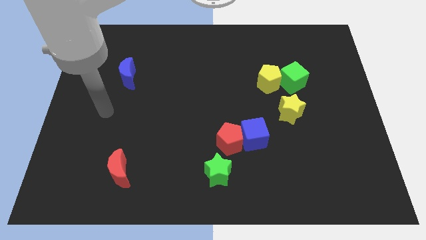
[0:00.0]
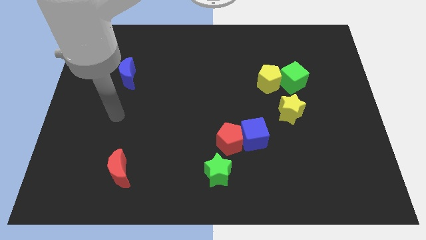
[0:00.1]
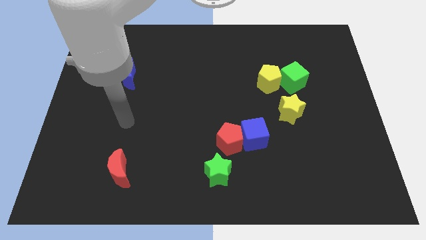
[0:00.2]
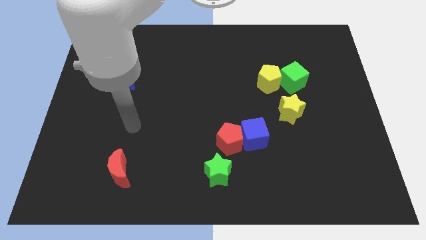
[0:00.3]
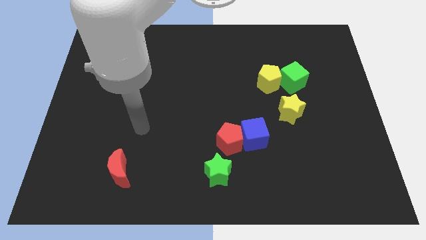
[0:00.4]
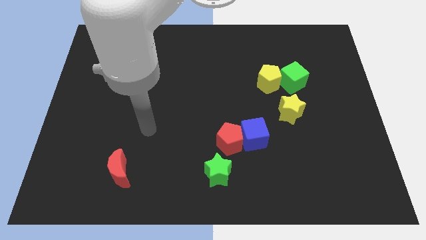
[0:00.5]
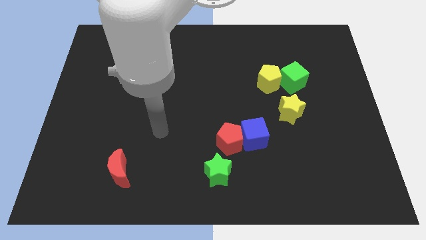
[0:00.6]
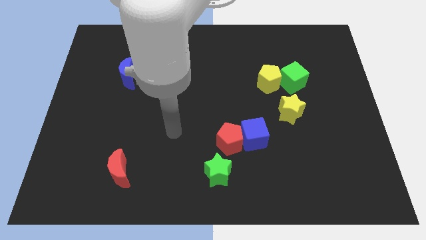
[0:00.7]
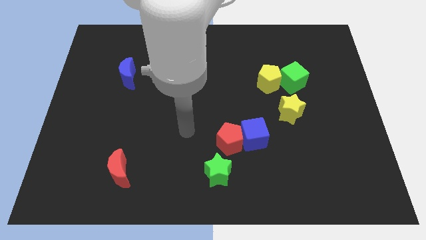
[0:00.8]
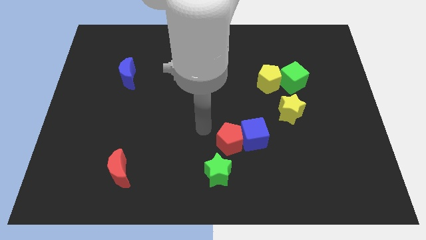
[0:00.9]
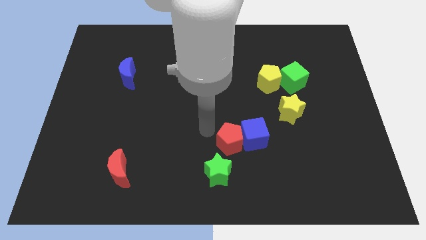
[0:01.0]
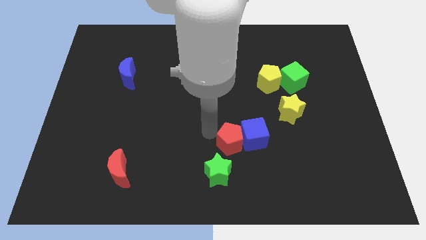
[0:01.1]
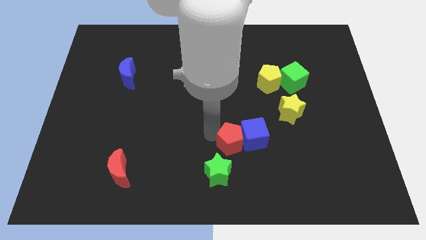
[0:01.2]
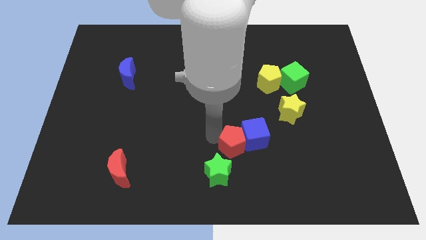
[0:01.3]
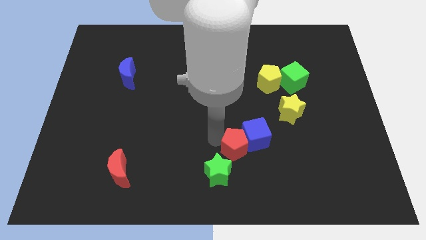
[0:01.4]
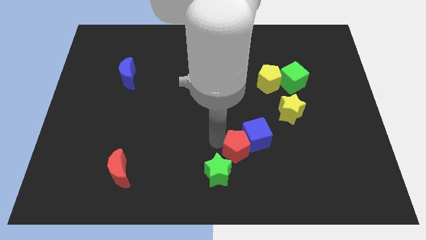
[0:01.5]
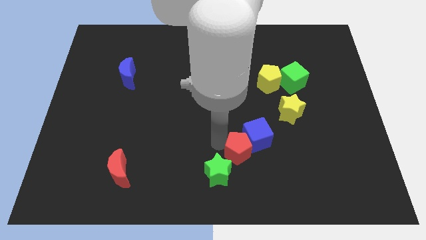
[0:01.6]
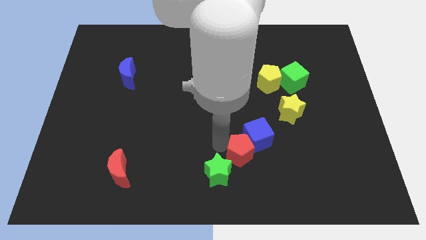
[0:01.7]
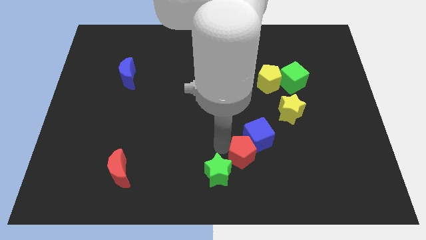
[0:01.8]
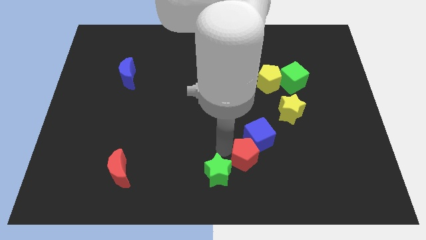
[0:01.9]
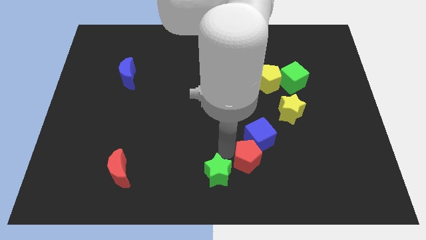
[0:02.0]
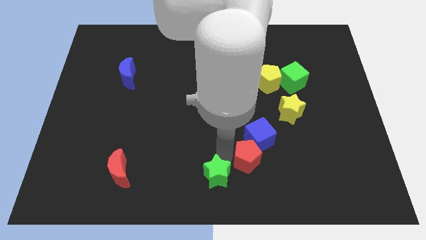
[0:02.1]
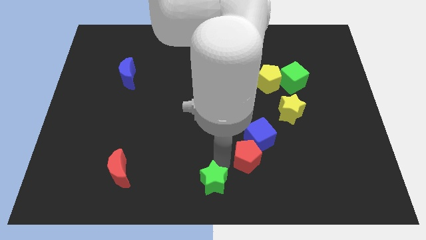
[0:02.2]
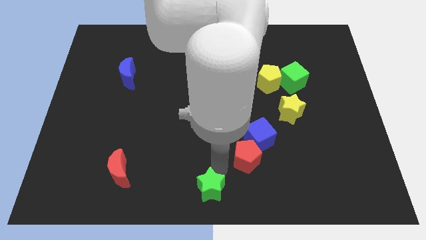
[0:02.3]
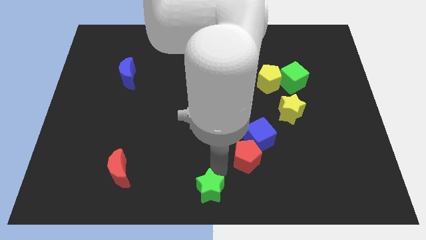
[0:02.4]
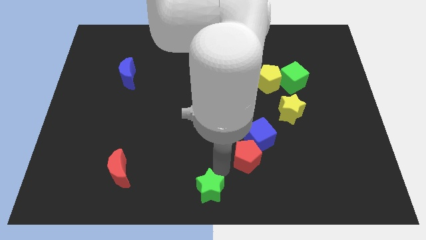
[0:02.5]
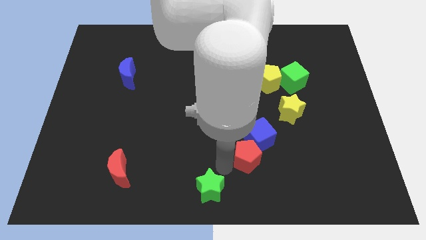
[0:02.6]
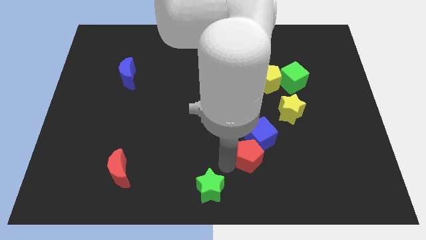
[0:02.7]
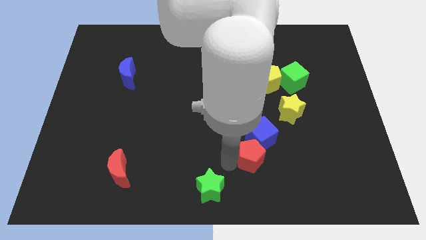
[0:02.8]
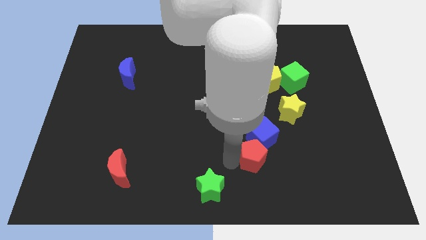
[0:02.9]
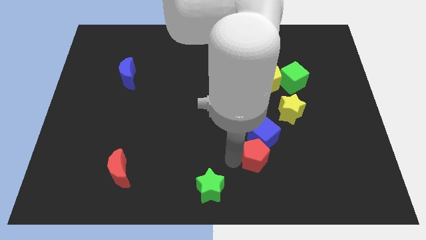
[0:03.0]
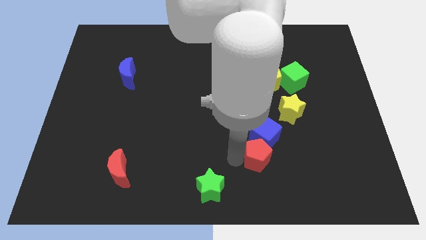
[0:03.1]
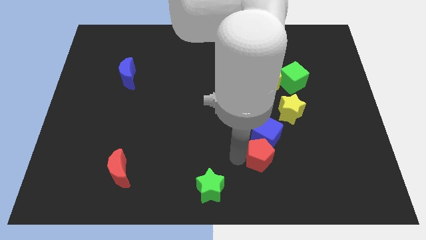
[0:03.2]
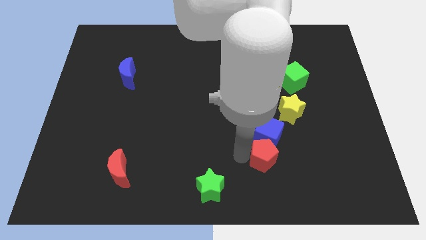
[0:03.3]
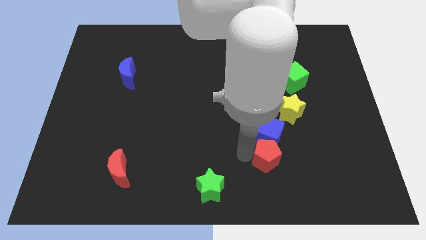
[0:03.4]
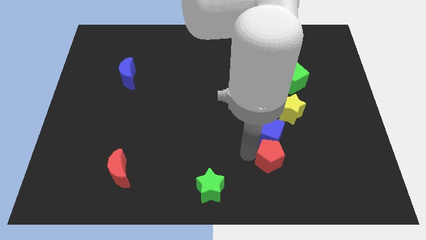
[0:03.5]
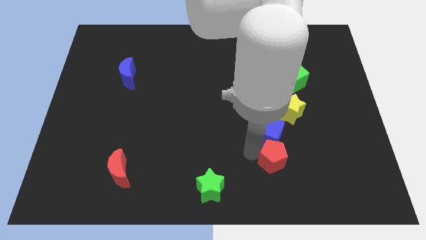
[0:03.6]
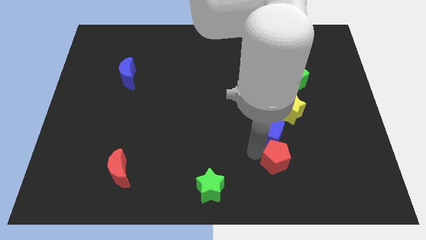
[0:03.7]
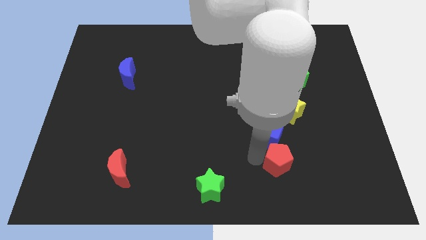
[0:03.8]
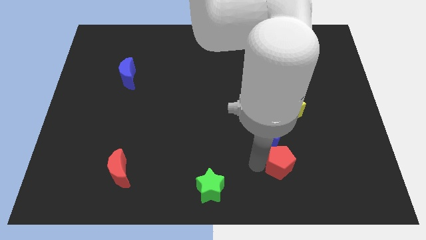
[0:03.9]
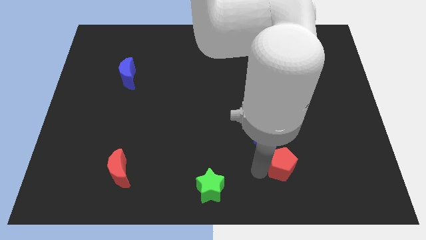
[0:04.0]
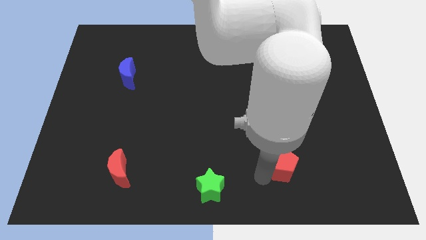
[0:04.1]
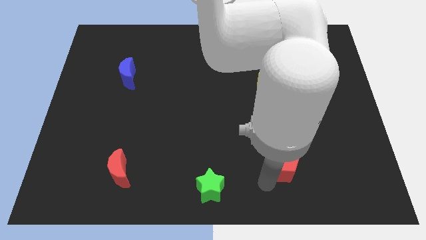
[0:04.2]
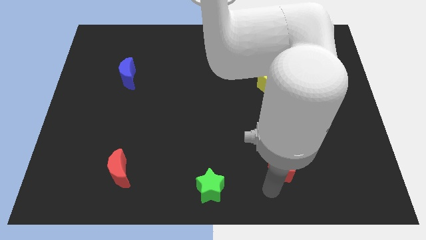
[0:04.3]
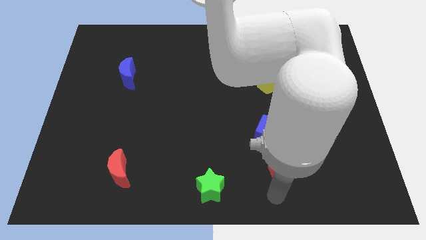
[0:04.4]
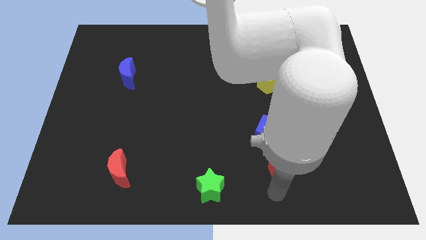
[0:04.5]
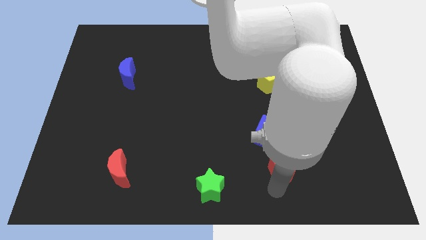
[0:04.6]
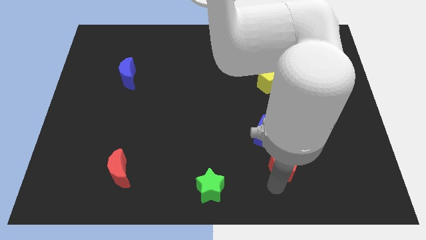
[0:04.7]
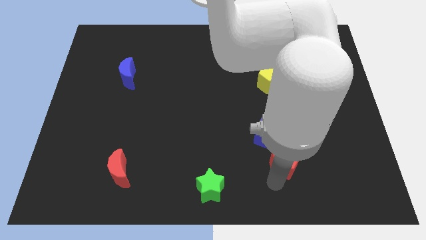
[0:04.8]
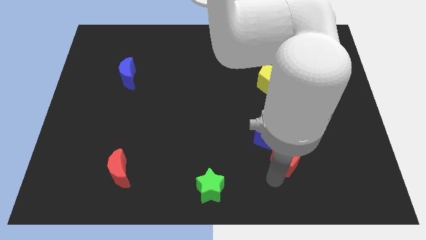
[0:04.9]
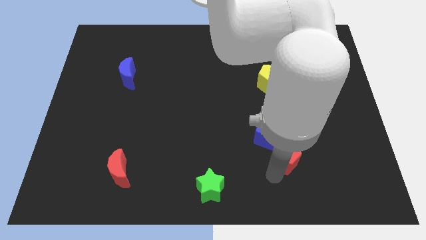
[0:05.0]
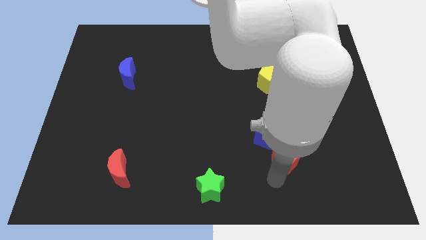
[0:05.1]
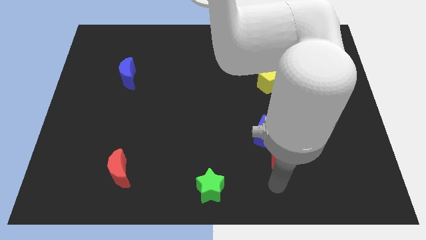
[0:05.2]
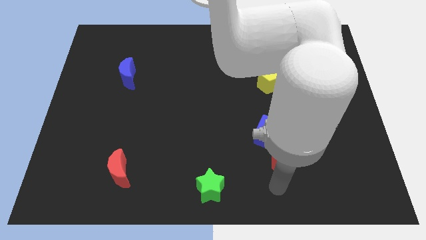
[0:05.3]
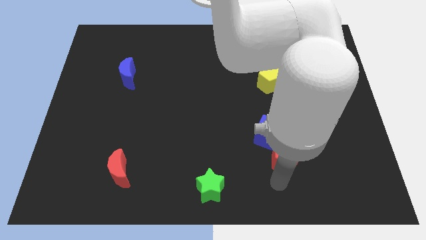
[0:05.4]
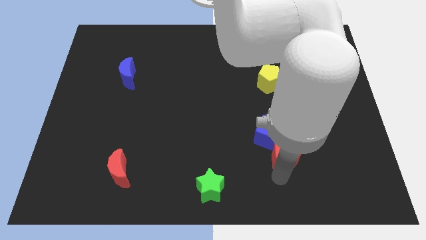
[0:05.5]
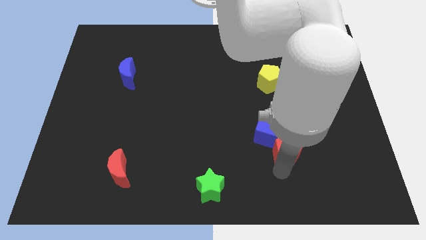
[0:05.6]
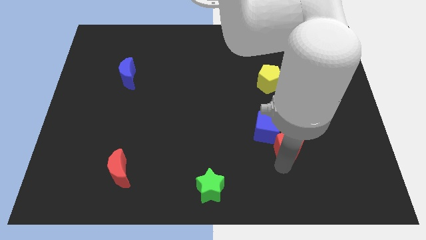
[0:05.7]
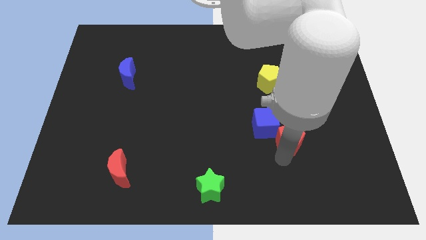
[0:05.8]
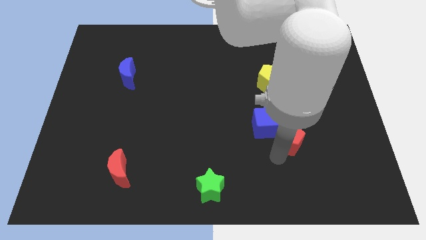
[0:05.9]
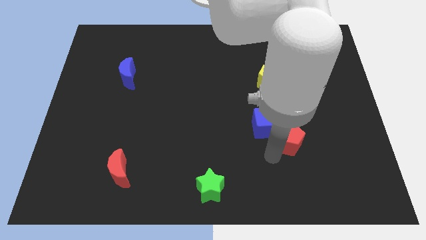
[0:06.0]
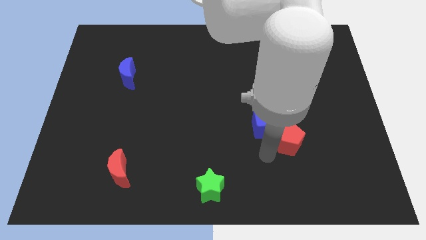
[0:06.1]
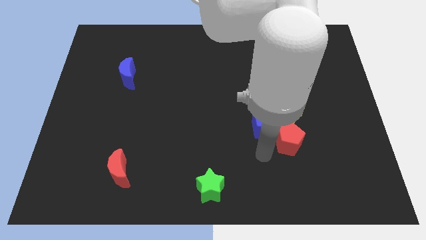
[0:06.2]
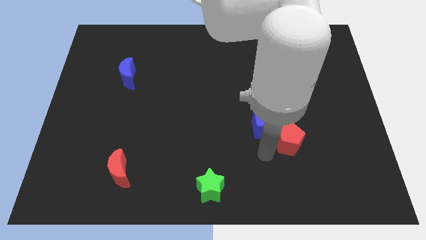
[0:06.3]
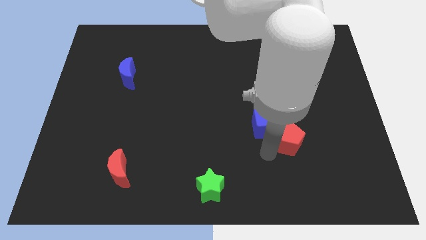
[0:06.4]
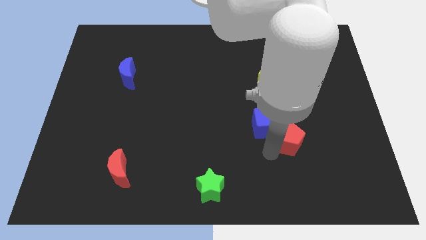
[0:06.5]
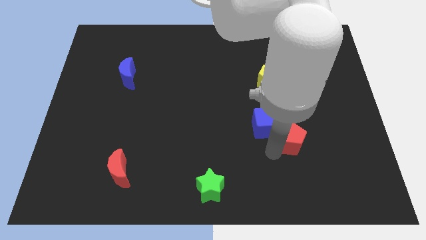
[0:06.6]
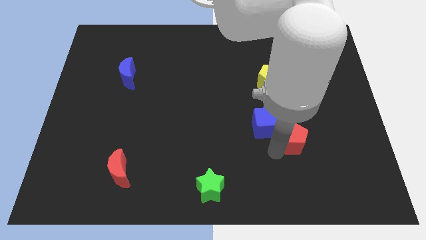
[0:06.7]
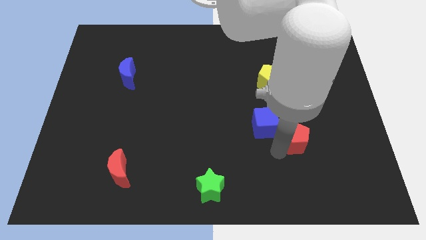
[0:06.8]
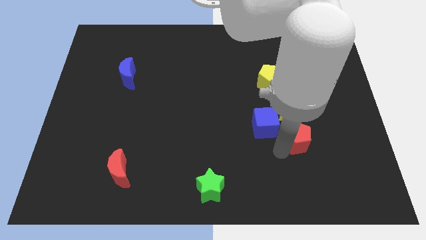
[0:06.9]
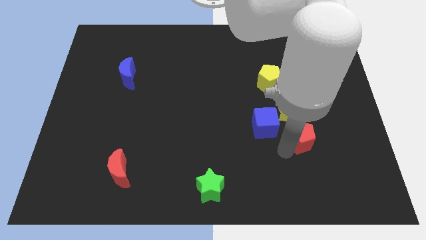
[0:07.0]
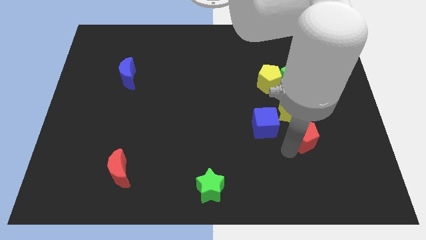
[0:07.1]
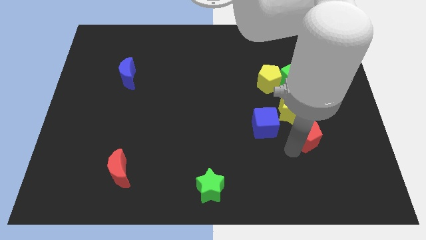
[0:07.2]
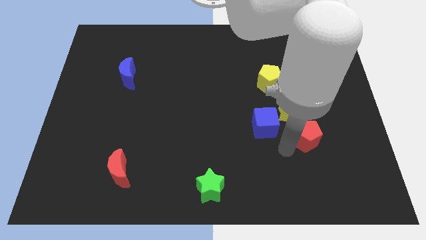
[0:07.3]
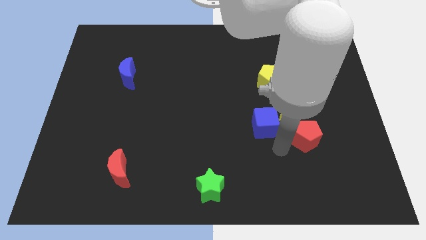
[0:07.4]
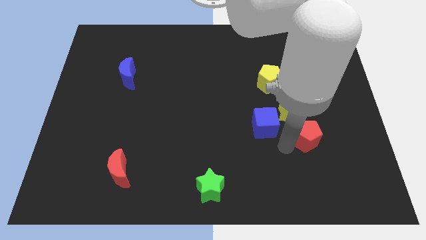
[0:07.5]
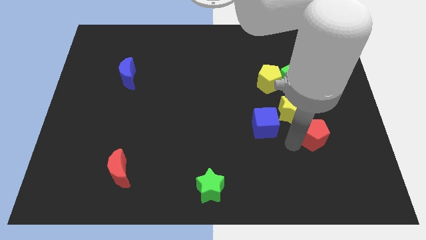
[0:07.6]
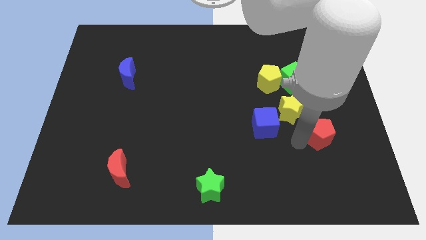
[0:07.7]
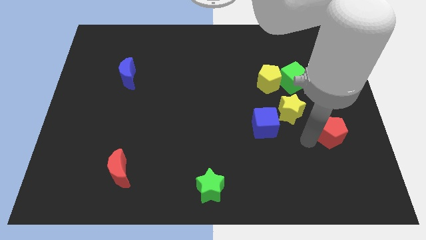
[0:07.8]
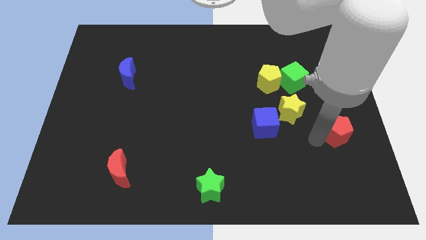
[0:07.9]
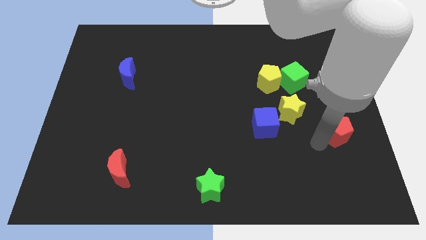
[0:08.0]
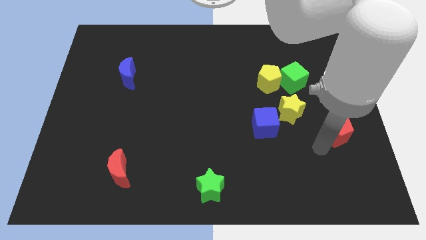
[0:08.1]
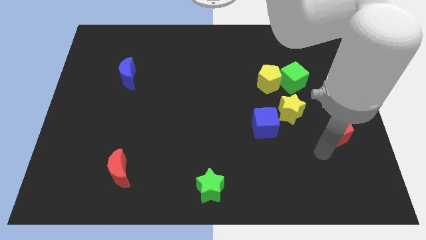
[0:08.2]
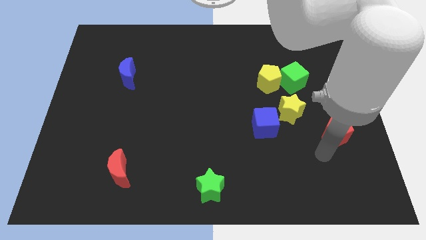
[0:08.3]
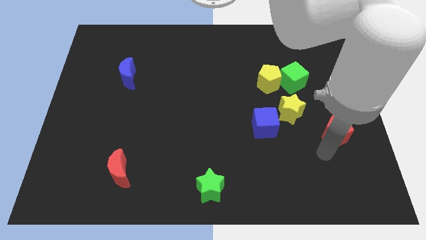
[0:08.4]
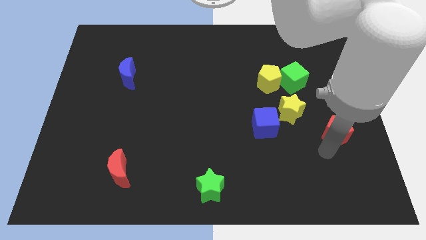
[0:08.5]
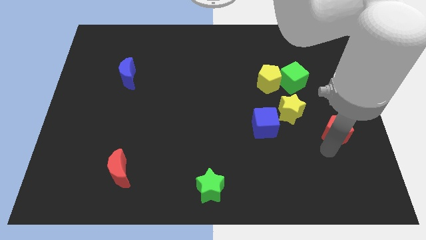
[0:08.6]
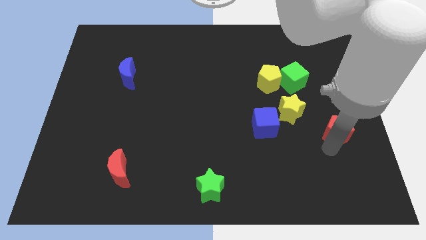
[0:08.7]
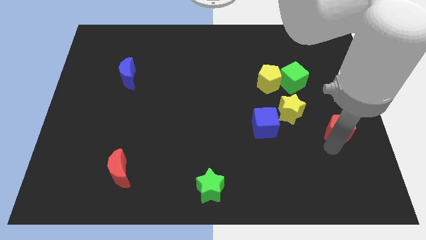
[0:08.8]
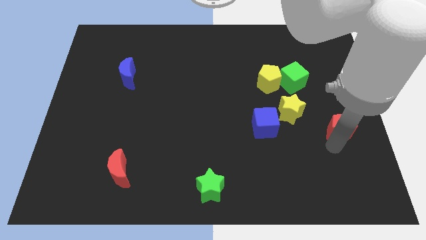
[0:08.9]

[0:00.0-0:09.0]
put the red pentagon to the center right
